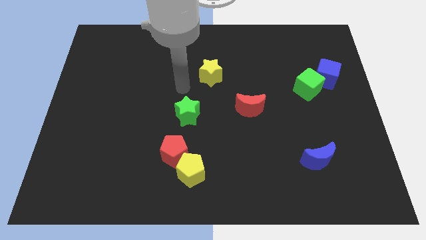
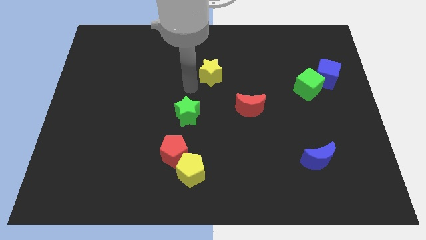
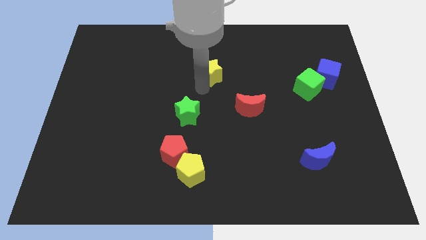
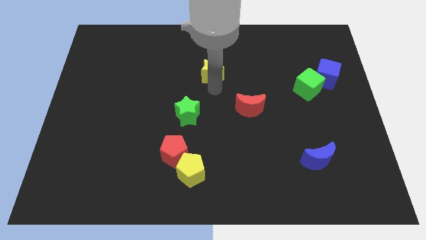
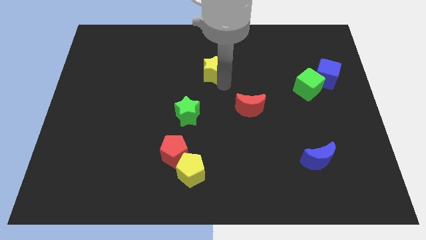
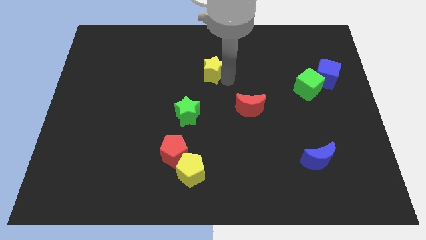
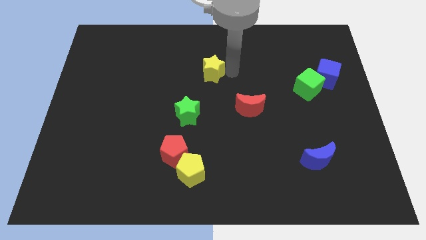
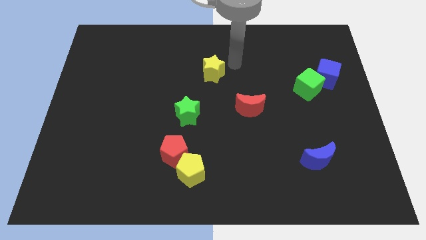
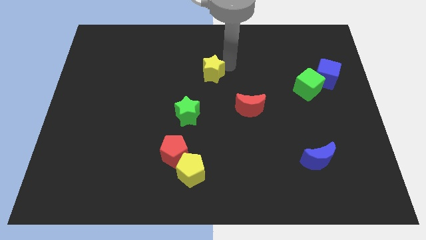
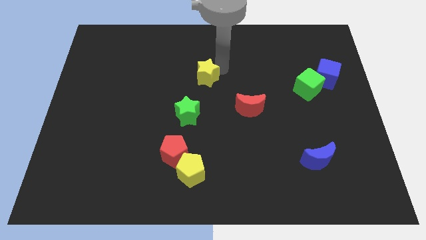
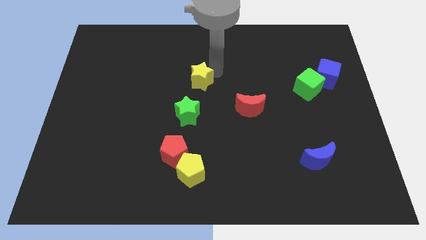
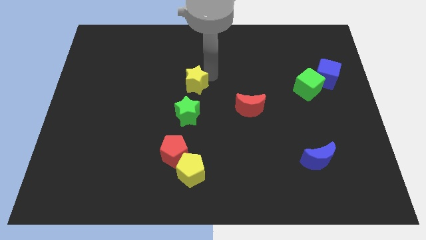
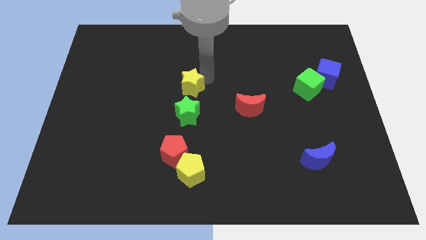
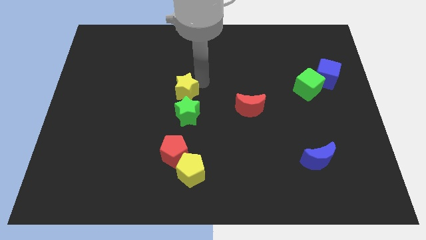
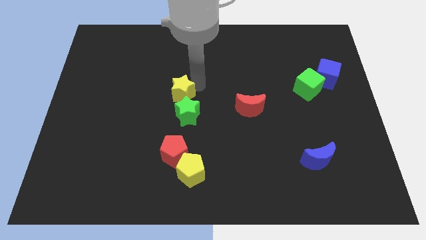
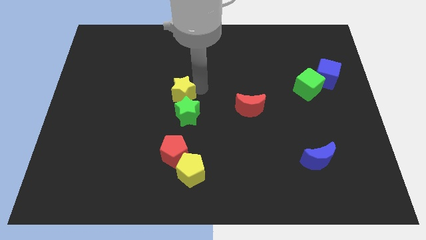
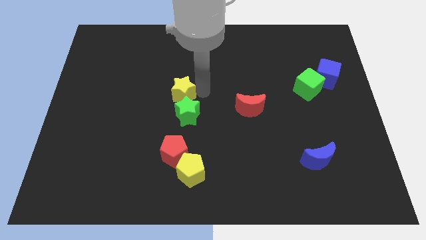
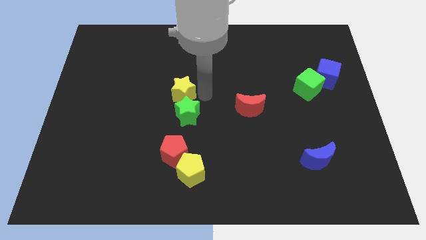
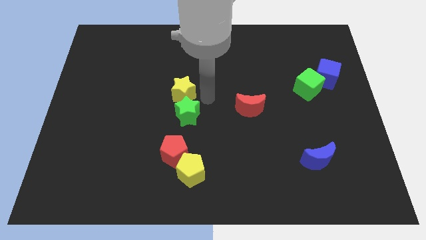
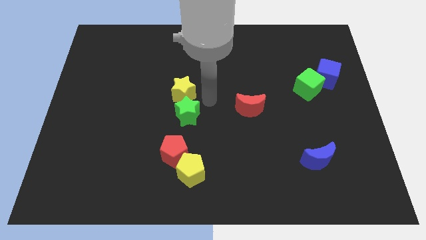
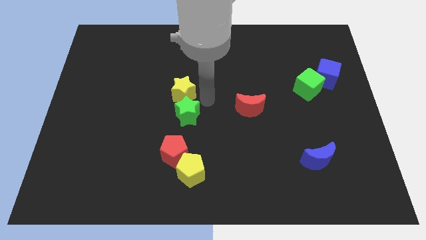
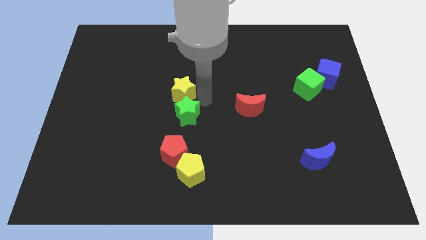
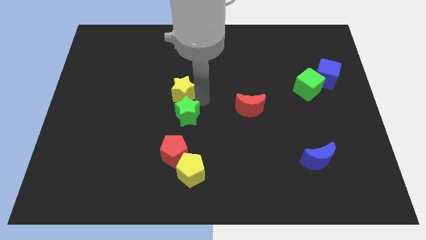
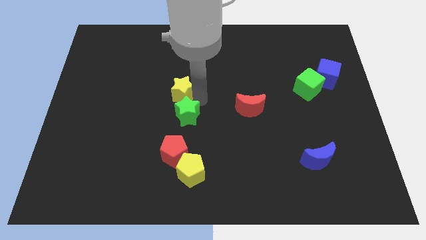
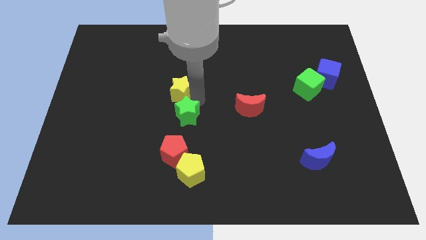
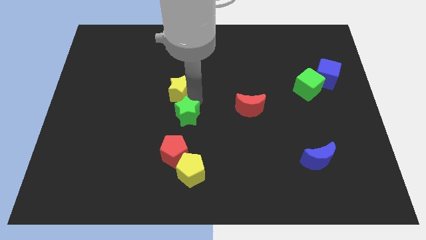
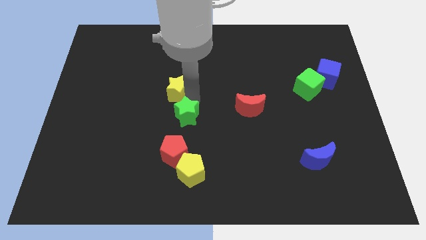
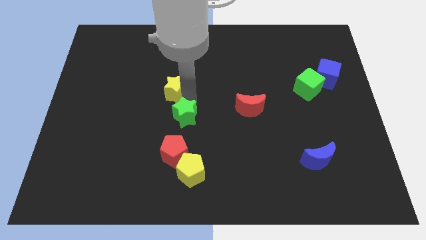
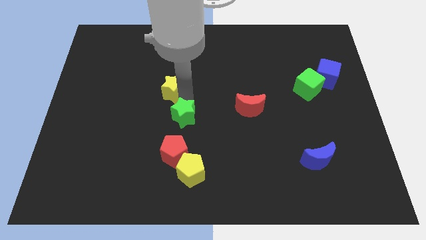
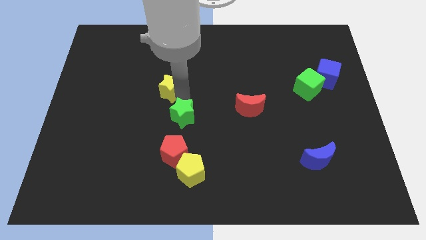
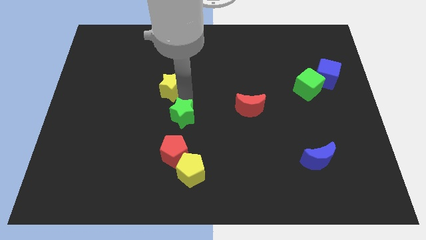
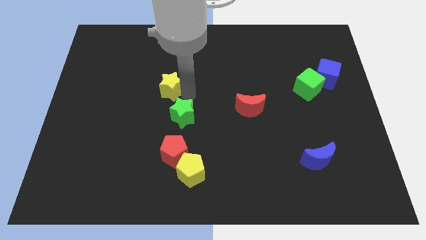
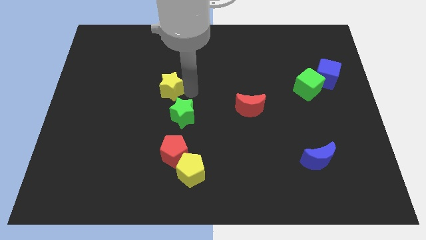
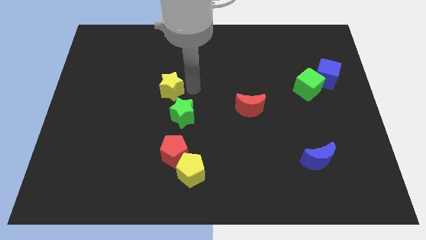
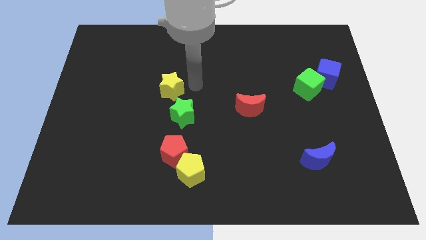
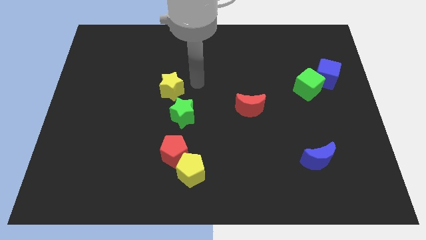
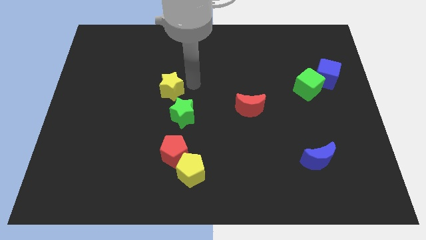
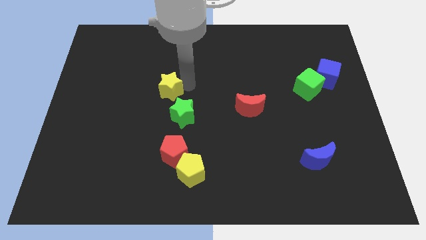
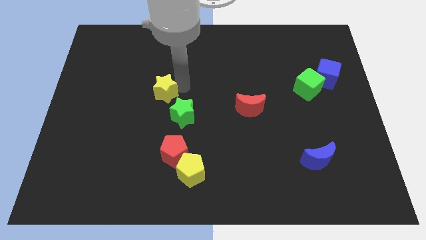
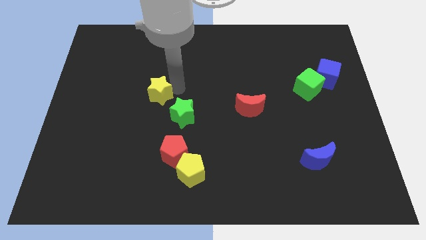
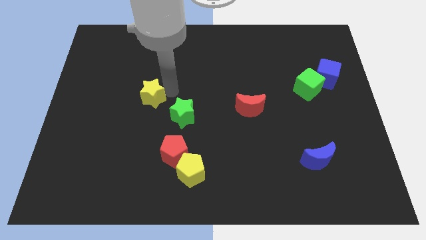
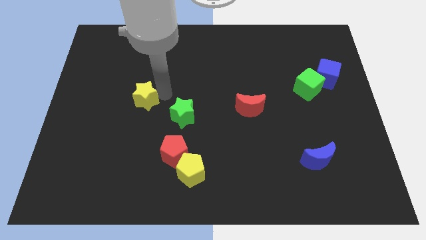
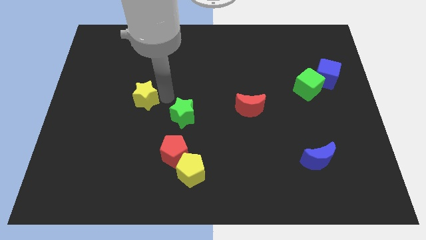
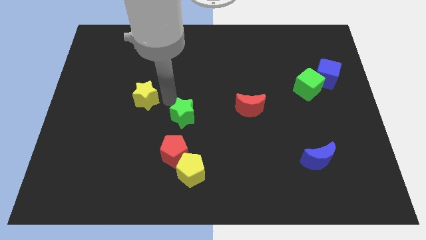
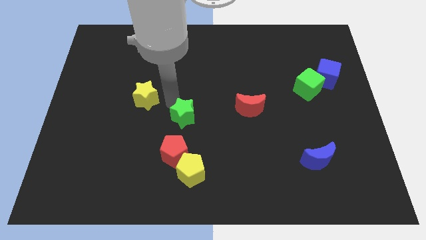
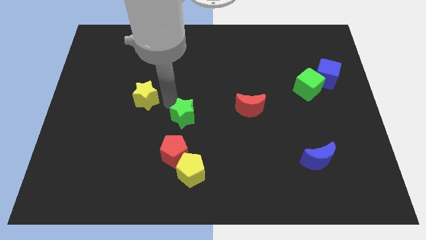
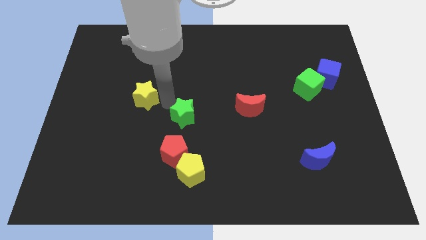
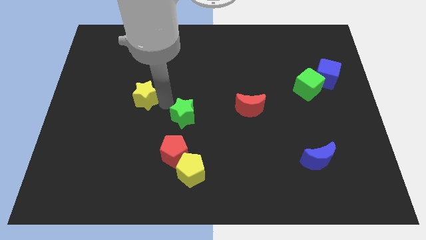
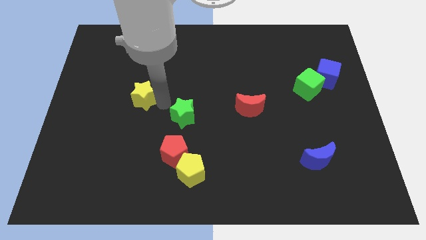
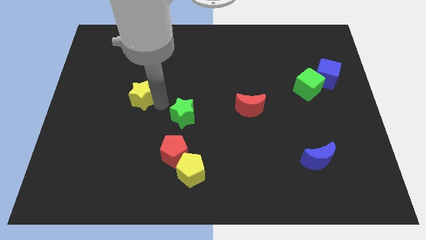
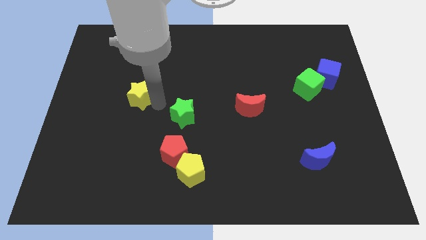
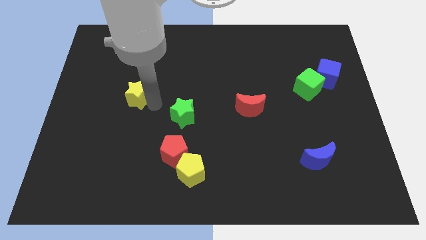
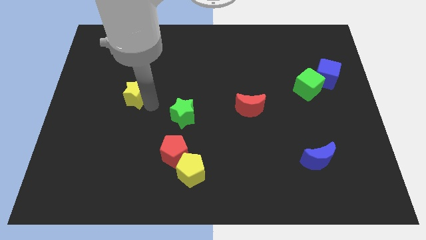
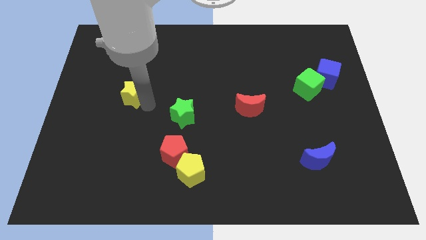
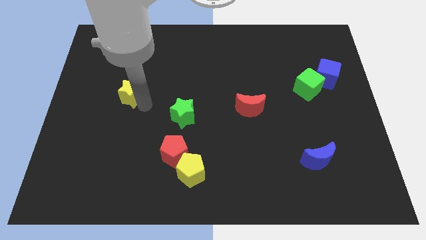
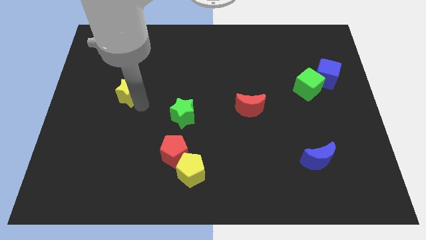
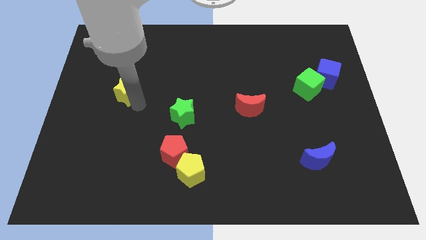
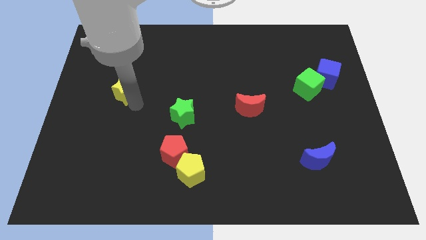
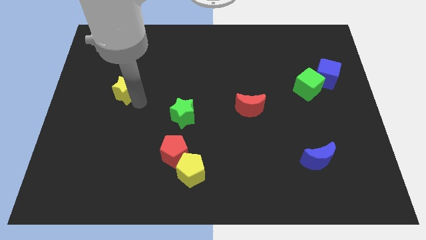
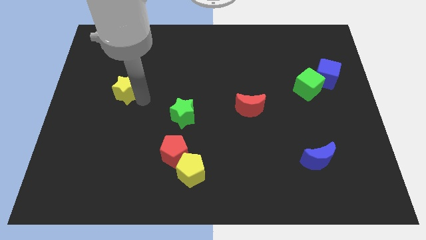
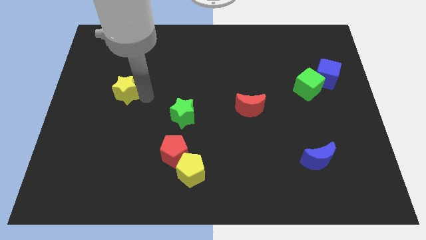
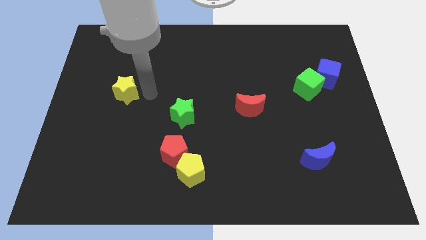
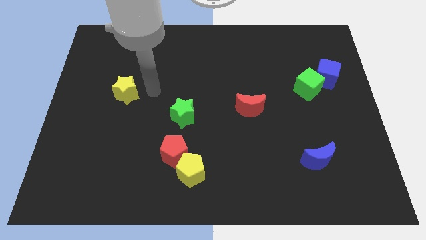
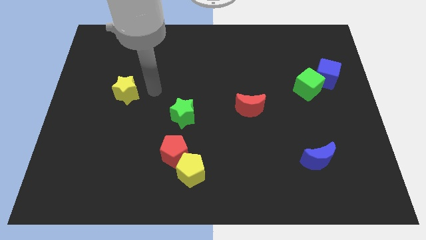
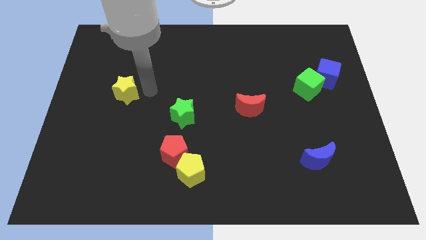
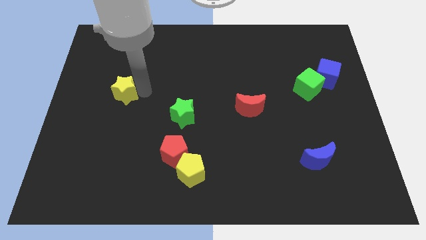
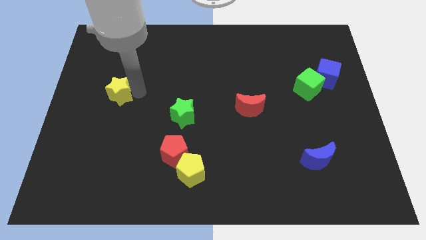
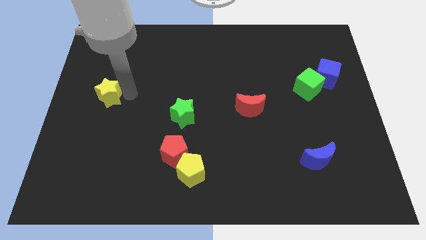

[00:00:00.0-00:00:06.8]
put the yellow star to the center left
